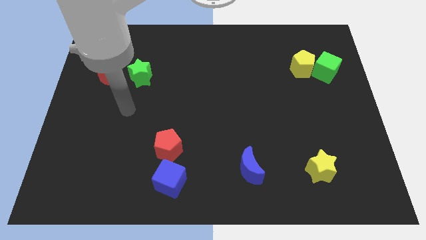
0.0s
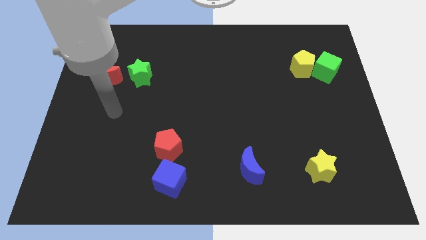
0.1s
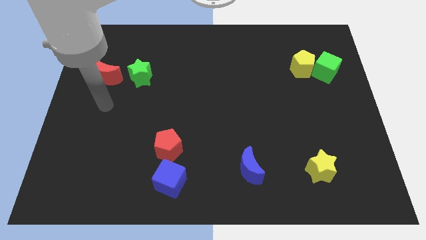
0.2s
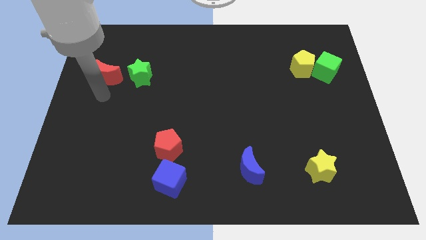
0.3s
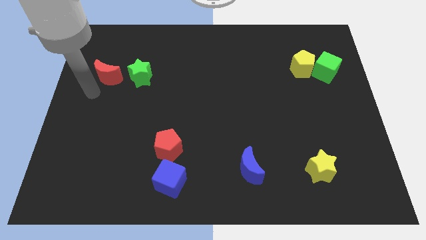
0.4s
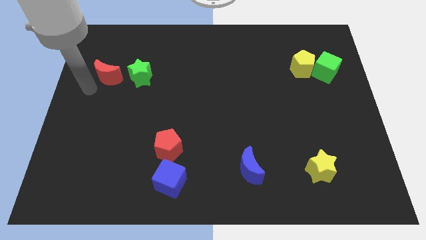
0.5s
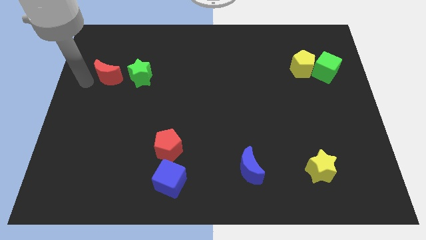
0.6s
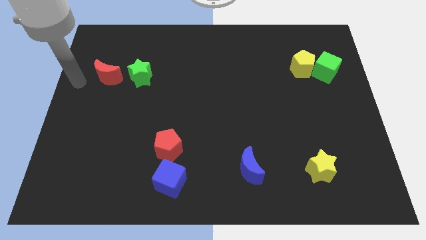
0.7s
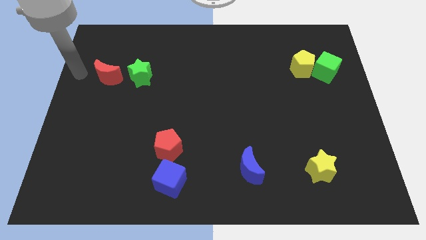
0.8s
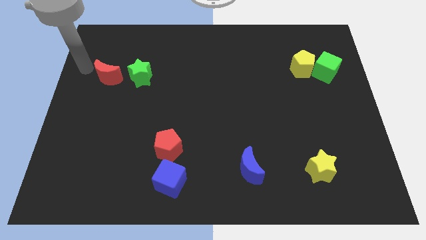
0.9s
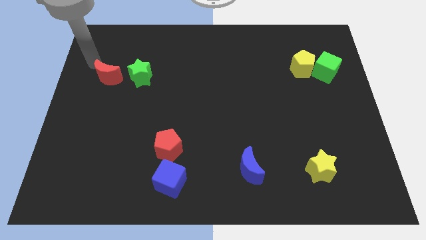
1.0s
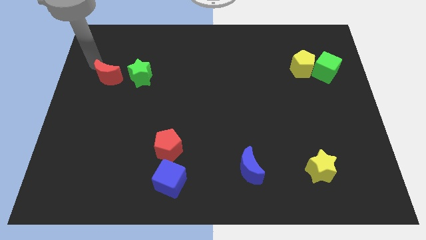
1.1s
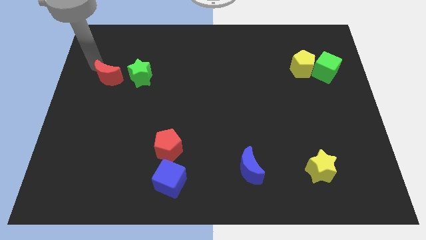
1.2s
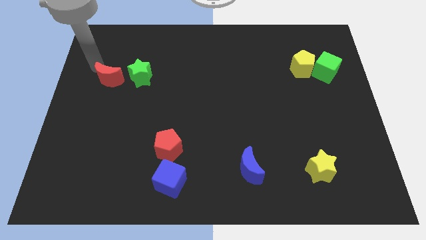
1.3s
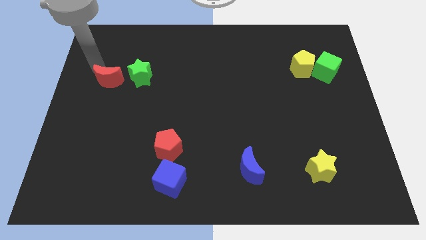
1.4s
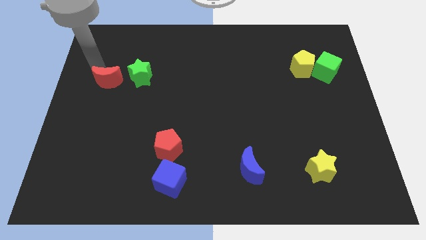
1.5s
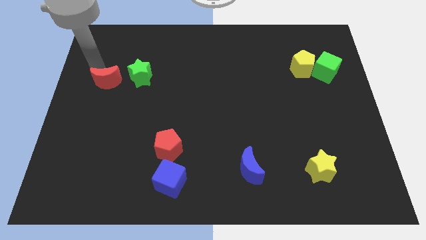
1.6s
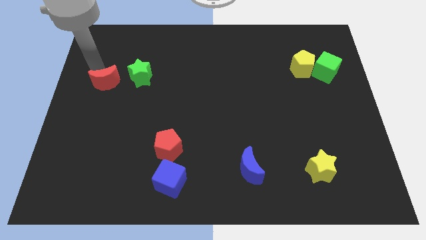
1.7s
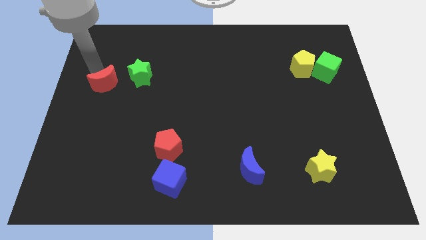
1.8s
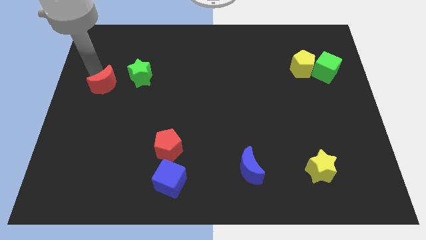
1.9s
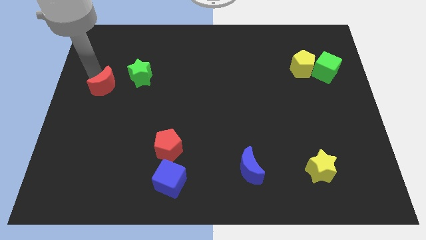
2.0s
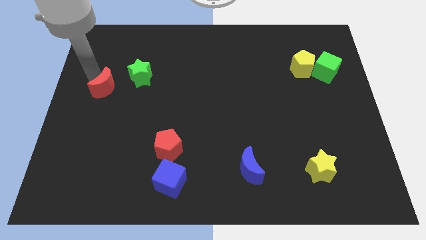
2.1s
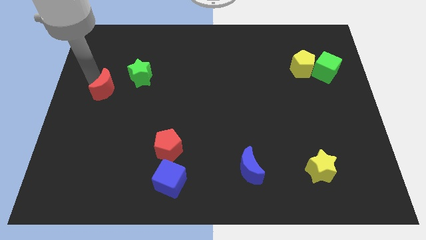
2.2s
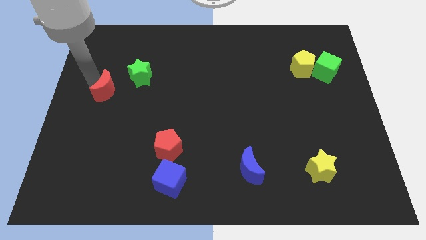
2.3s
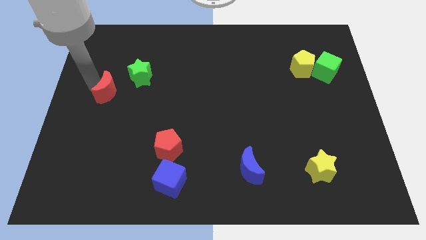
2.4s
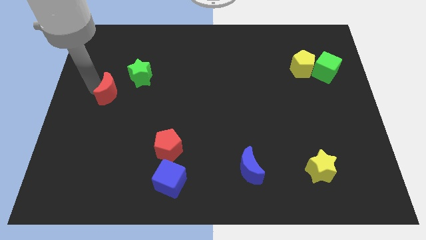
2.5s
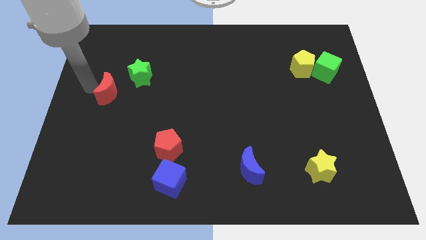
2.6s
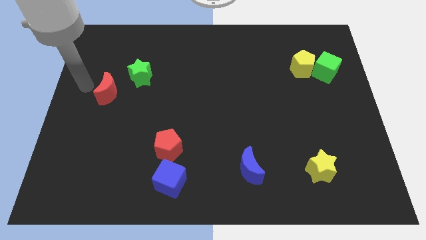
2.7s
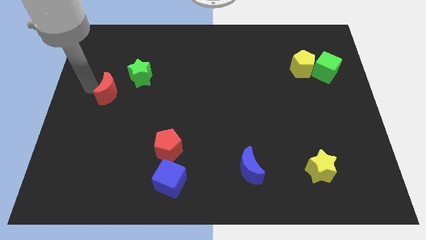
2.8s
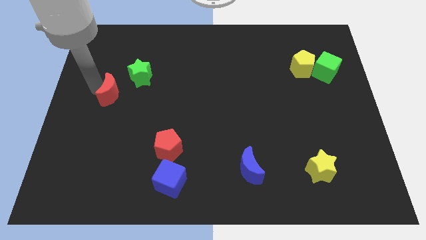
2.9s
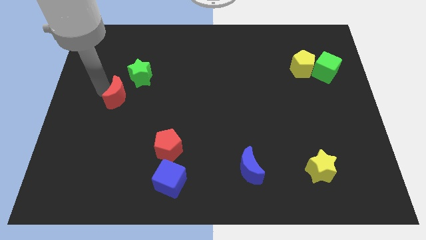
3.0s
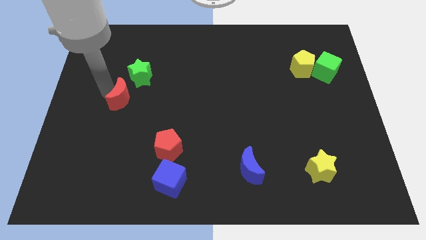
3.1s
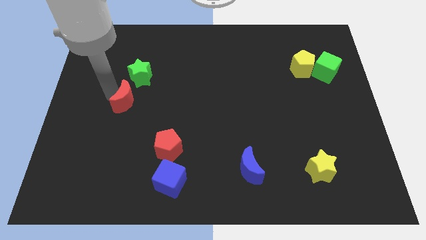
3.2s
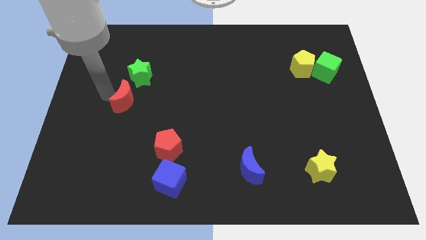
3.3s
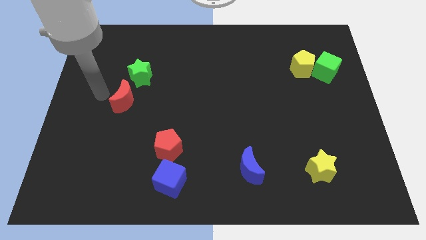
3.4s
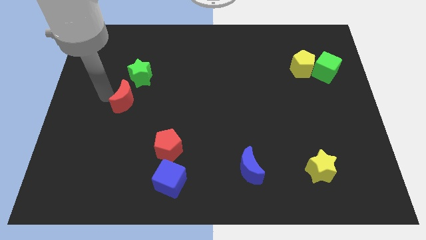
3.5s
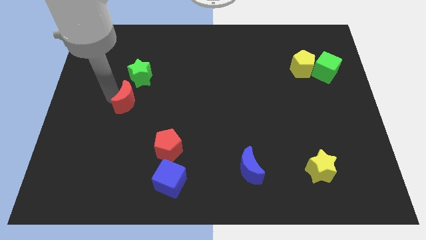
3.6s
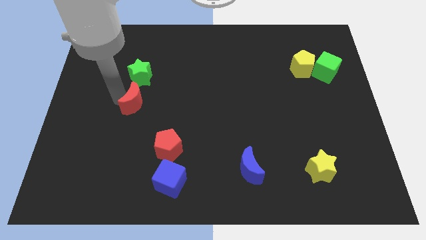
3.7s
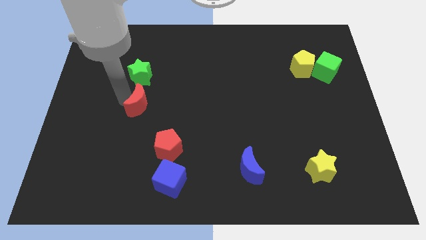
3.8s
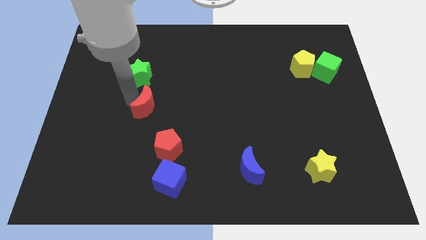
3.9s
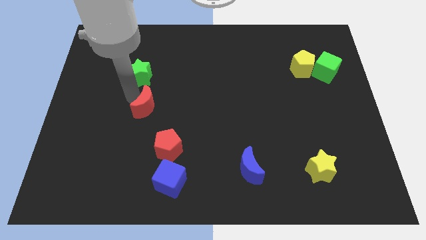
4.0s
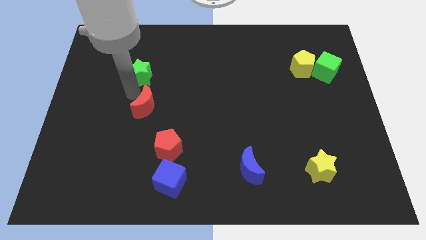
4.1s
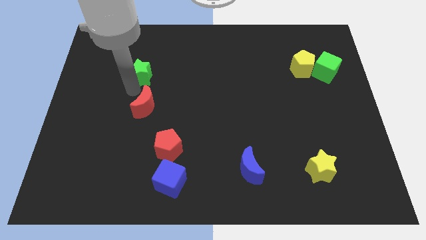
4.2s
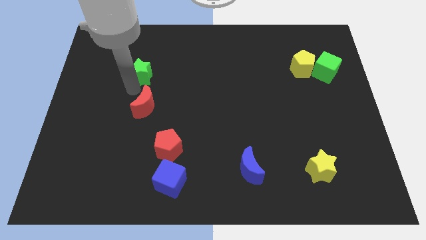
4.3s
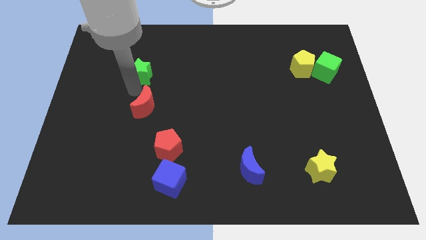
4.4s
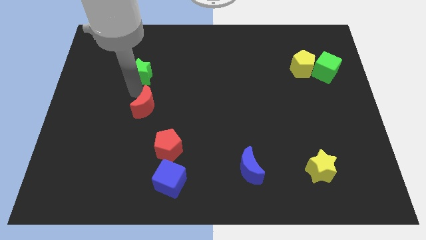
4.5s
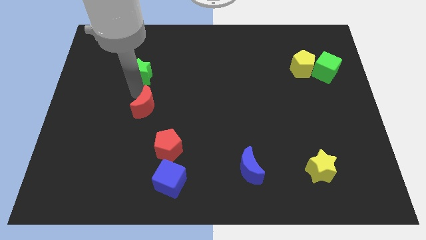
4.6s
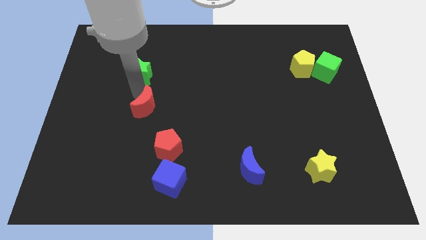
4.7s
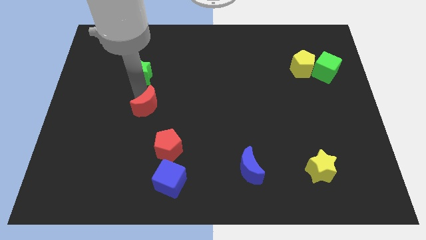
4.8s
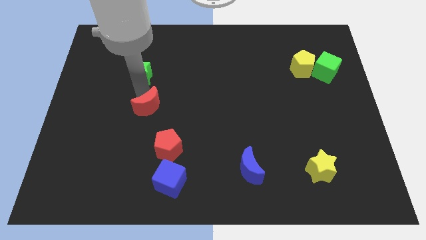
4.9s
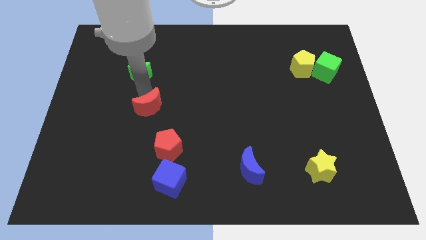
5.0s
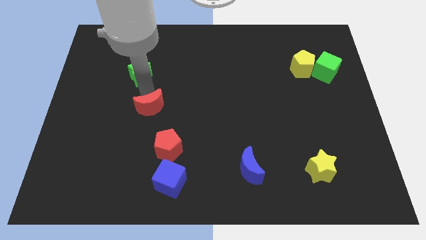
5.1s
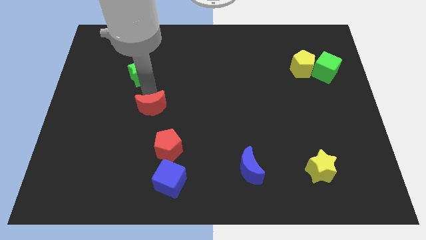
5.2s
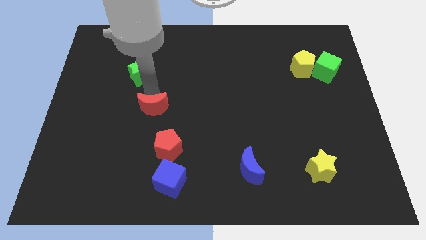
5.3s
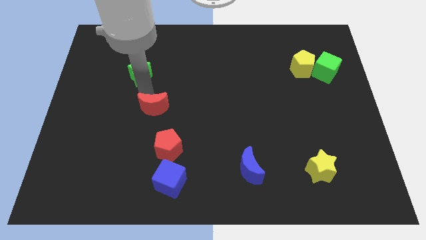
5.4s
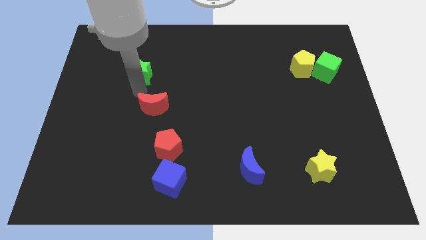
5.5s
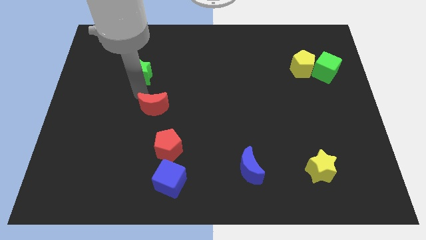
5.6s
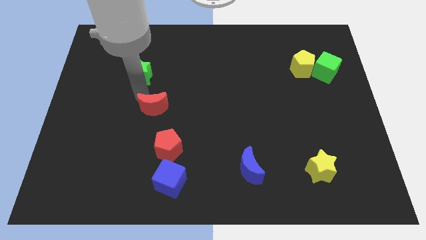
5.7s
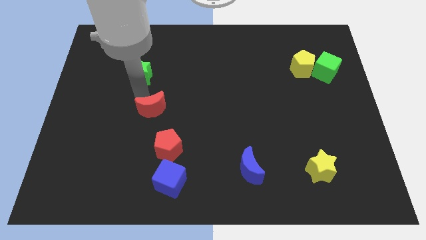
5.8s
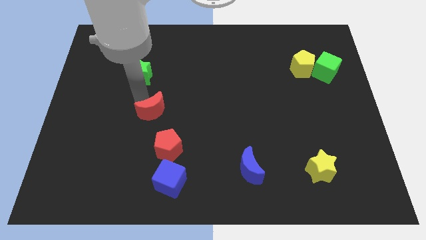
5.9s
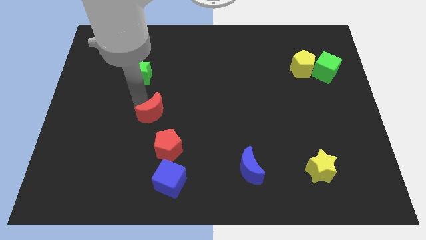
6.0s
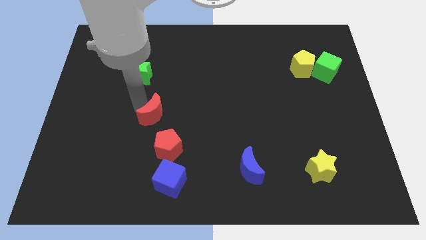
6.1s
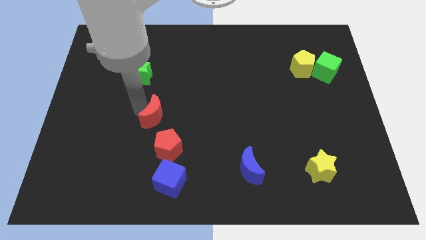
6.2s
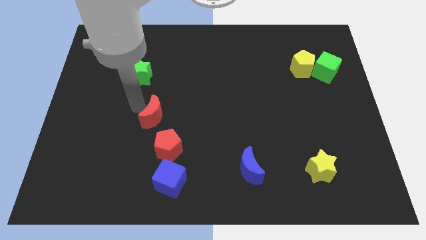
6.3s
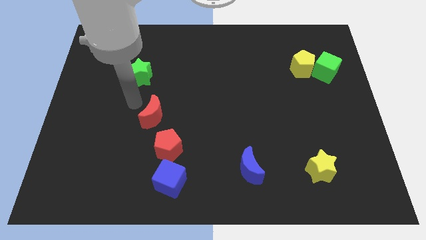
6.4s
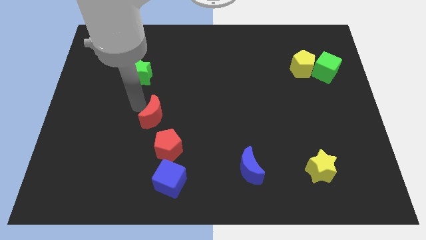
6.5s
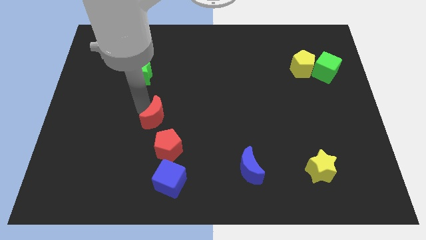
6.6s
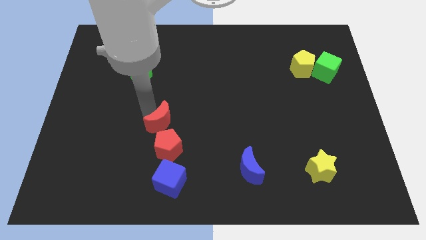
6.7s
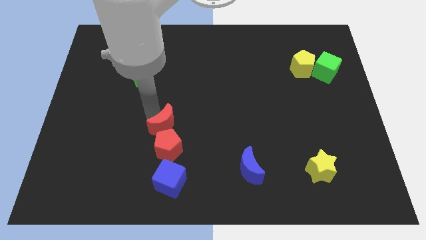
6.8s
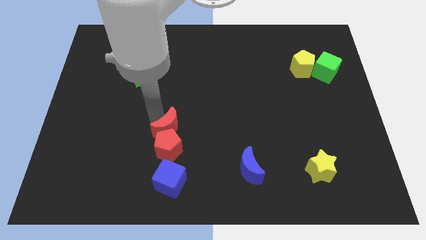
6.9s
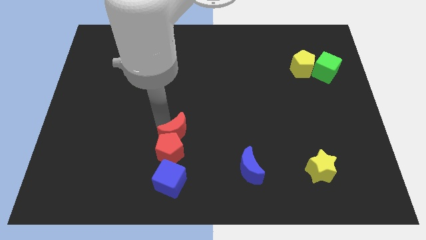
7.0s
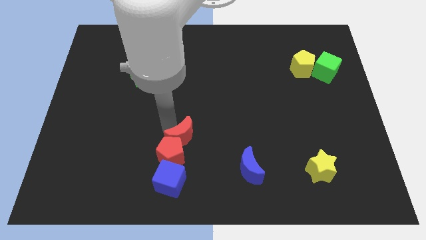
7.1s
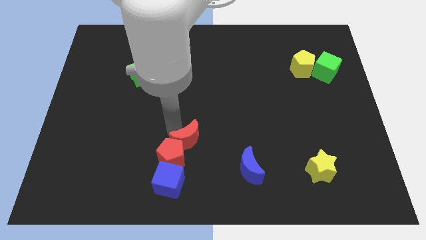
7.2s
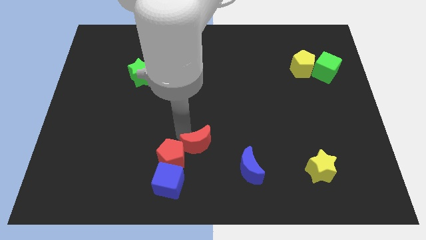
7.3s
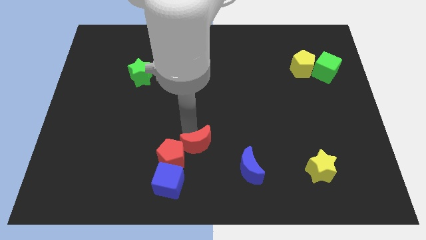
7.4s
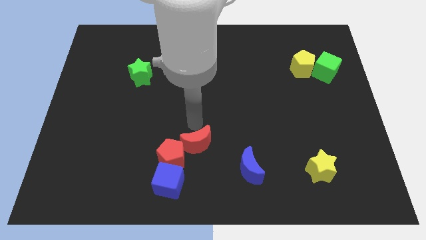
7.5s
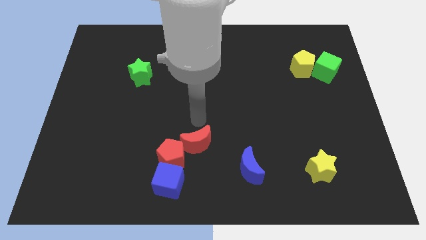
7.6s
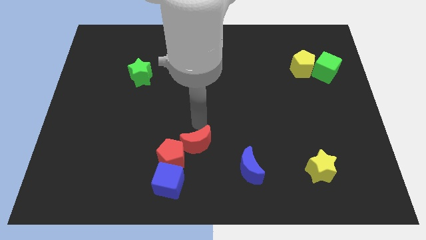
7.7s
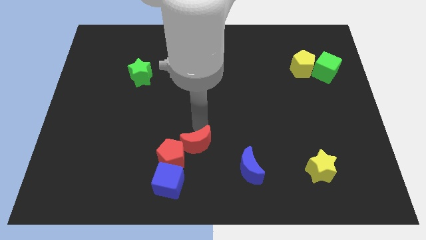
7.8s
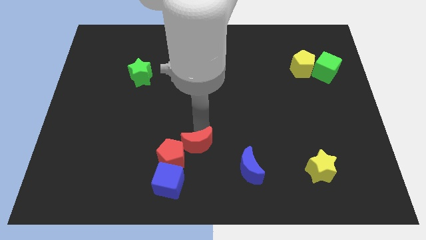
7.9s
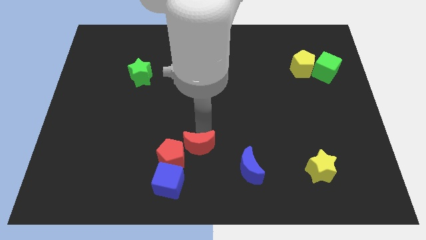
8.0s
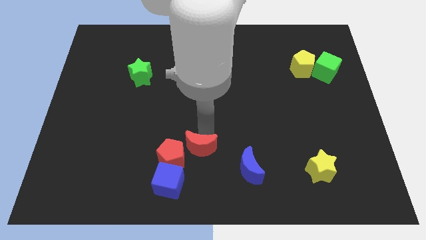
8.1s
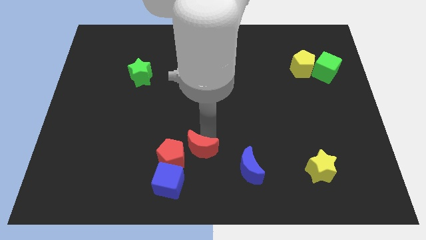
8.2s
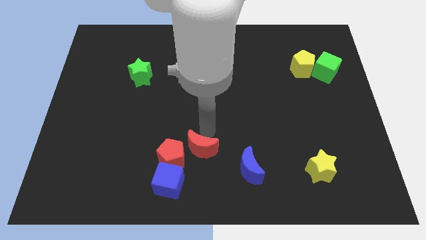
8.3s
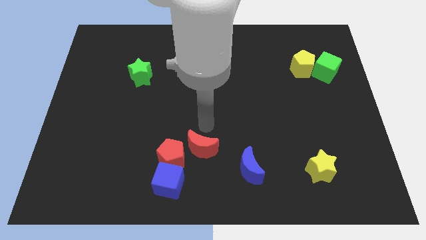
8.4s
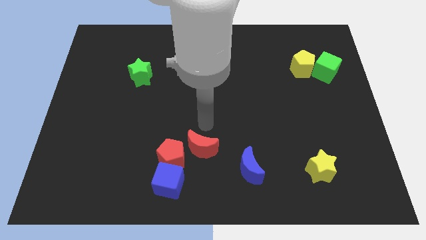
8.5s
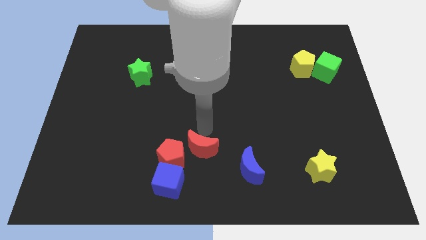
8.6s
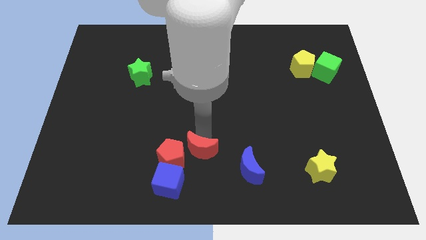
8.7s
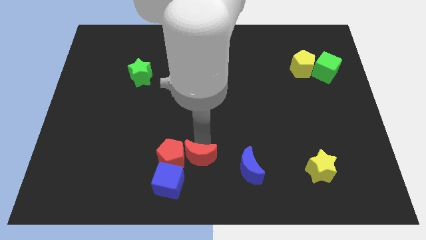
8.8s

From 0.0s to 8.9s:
slide the red moon to the bottom right side of the red pentagon
